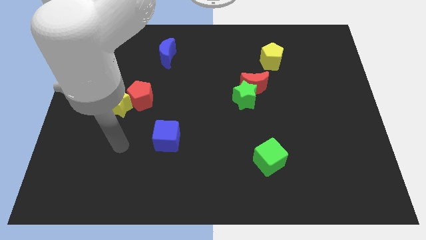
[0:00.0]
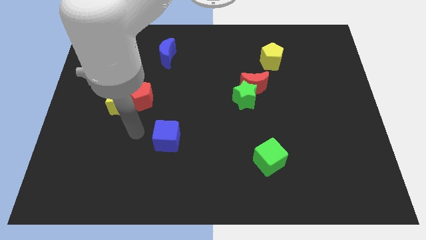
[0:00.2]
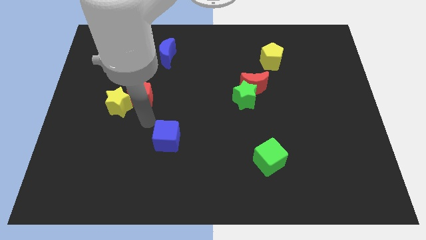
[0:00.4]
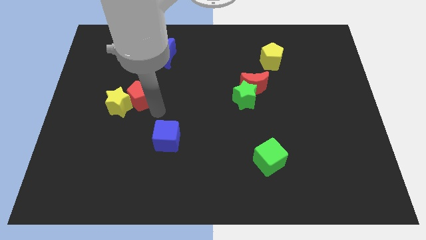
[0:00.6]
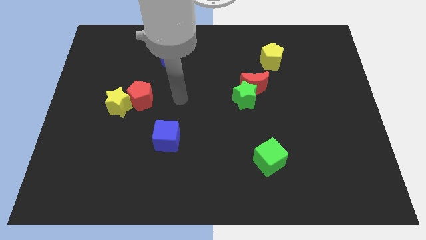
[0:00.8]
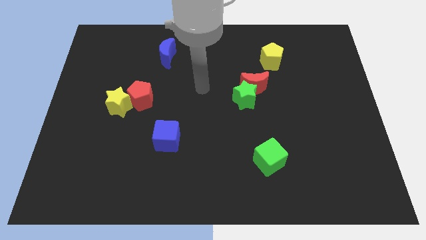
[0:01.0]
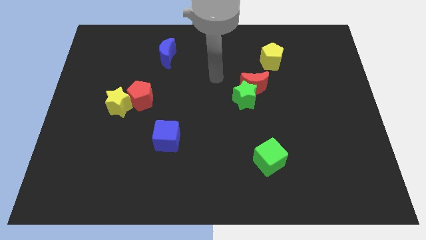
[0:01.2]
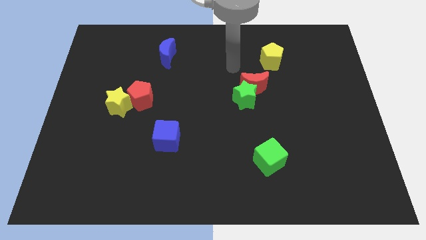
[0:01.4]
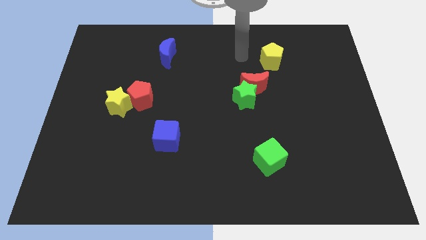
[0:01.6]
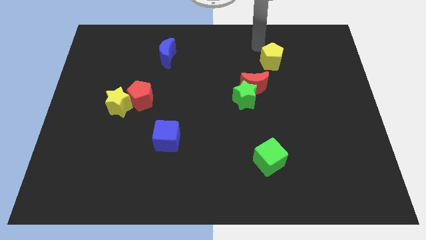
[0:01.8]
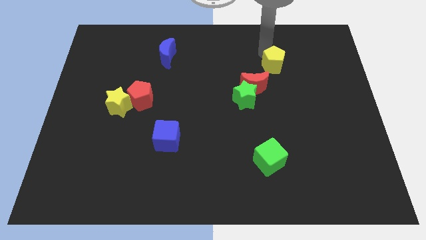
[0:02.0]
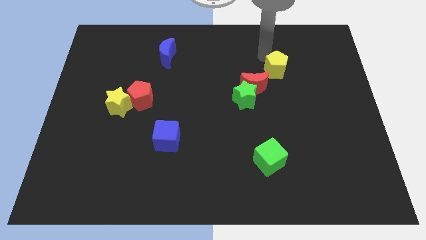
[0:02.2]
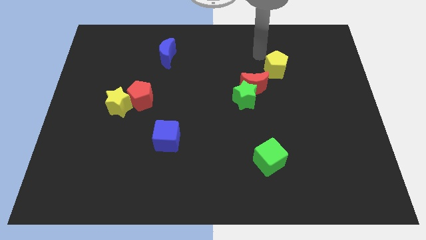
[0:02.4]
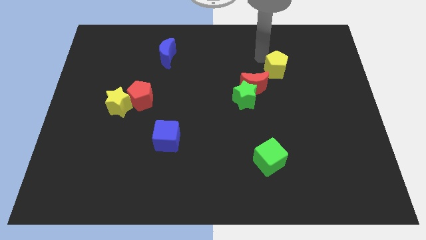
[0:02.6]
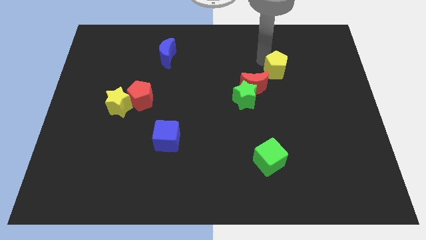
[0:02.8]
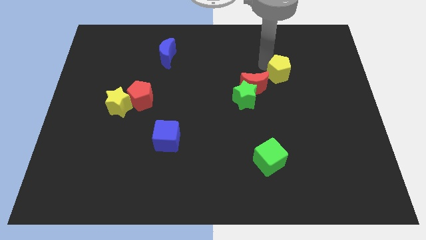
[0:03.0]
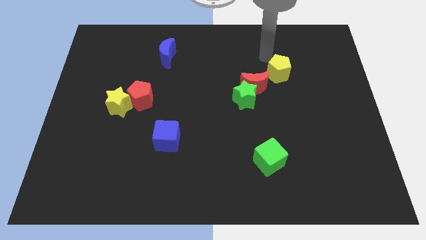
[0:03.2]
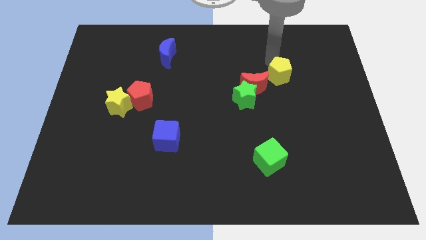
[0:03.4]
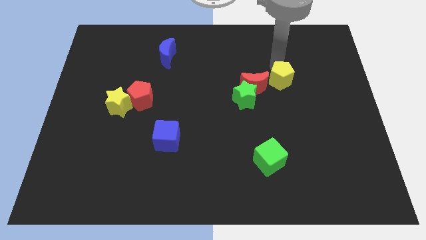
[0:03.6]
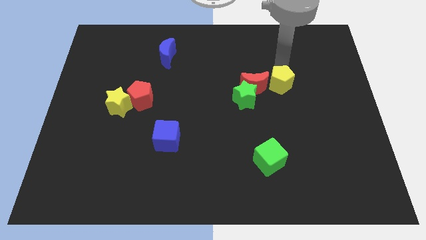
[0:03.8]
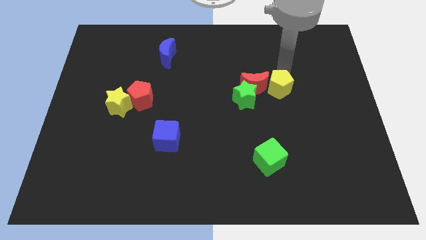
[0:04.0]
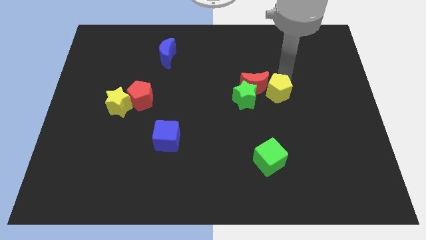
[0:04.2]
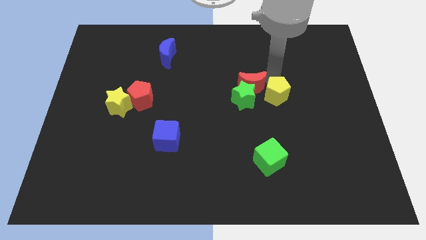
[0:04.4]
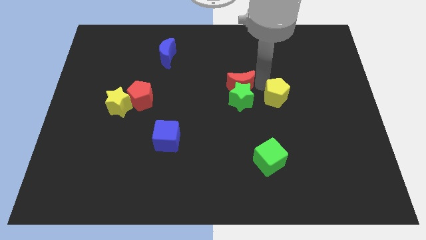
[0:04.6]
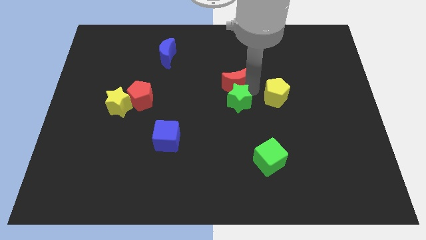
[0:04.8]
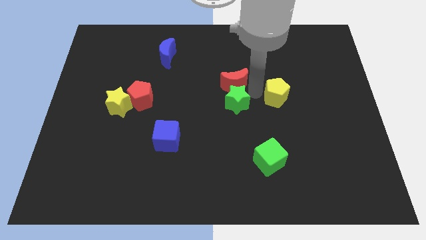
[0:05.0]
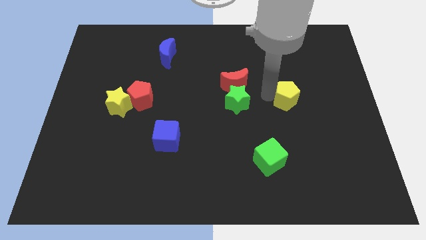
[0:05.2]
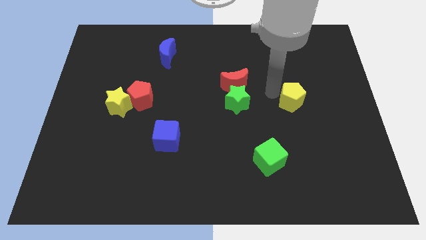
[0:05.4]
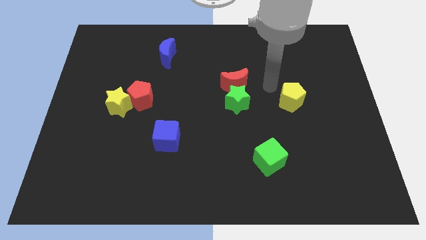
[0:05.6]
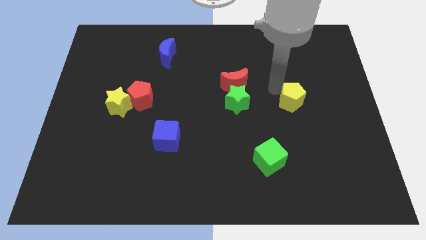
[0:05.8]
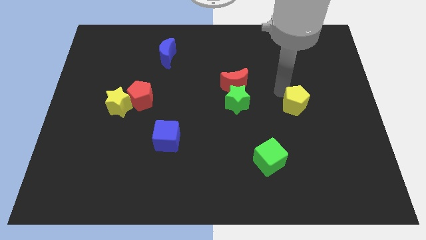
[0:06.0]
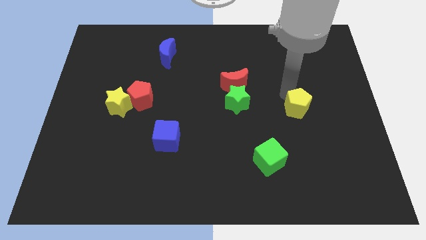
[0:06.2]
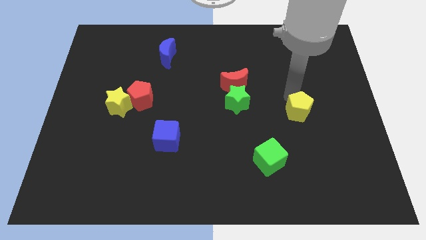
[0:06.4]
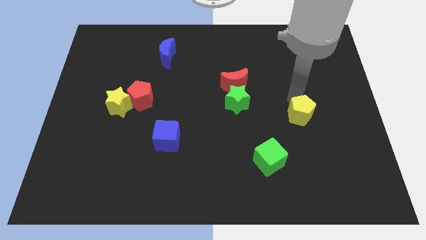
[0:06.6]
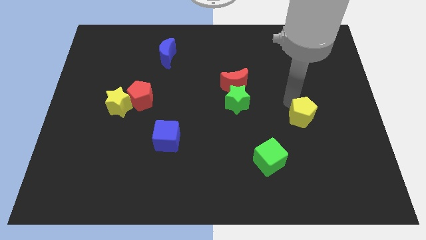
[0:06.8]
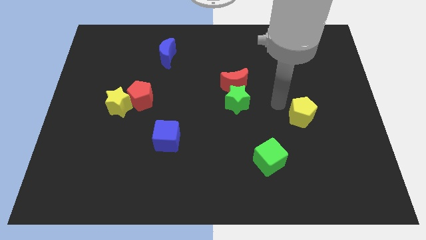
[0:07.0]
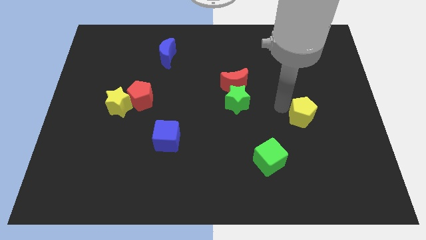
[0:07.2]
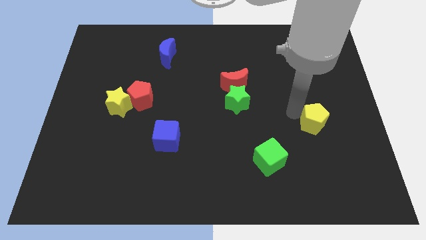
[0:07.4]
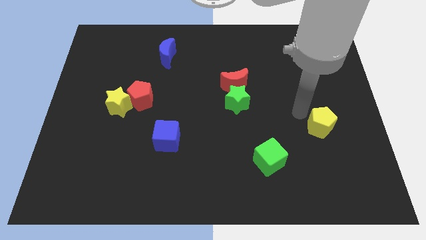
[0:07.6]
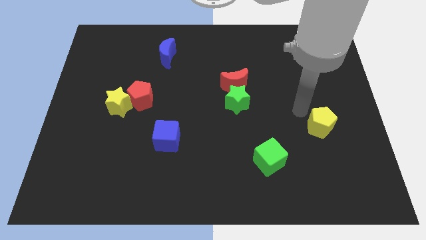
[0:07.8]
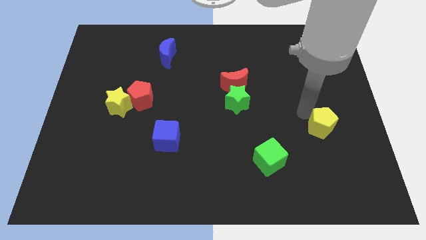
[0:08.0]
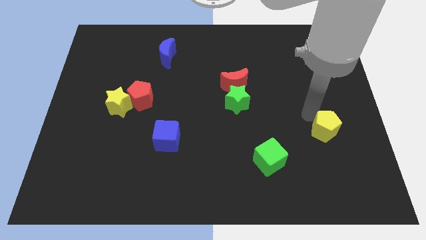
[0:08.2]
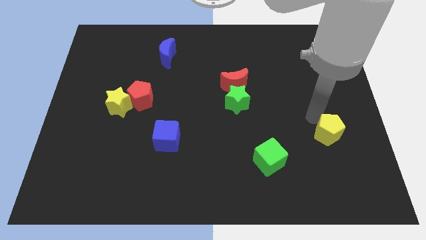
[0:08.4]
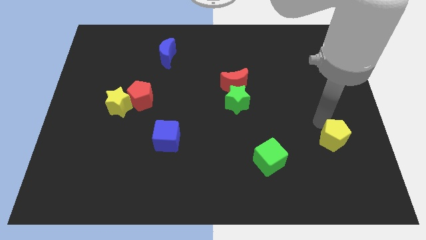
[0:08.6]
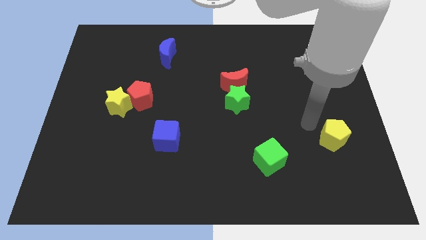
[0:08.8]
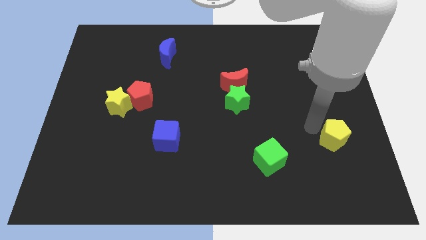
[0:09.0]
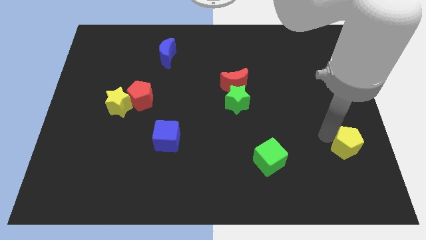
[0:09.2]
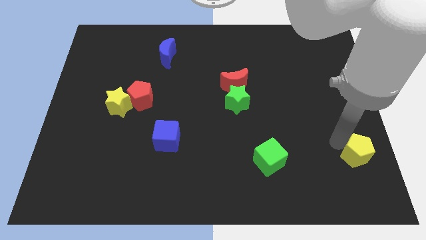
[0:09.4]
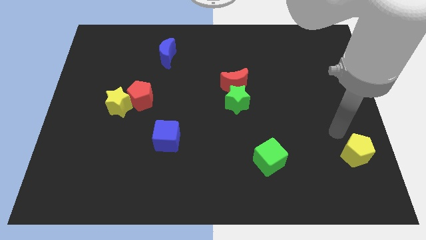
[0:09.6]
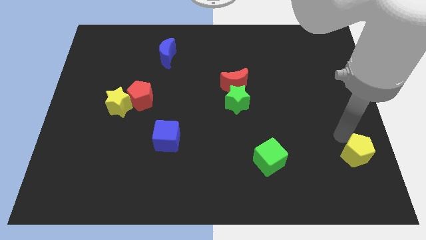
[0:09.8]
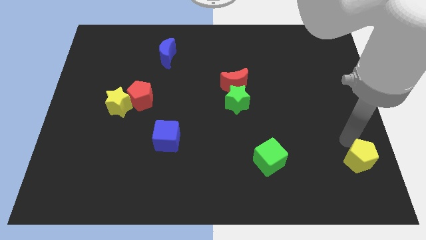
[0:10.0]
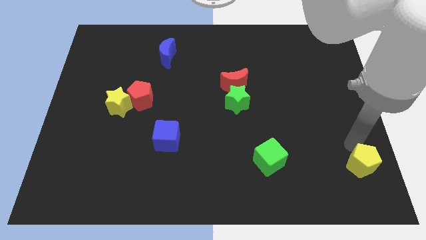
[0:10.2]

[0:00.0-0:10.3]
slide the yellow pentagon to the bottom right corner
